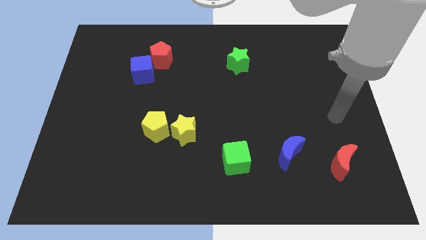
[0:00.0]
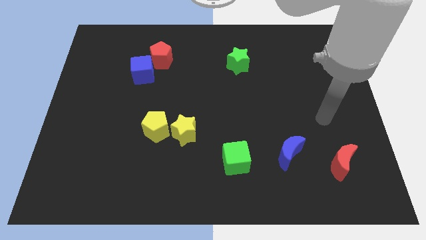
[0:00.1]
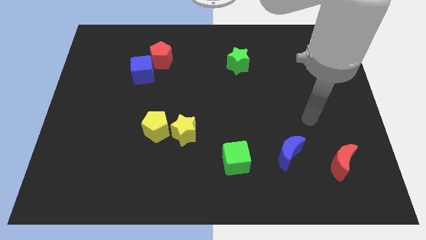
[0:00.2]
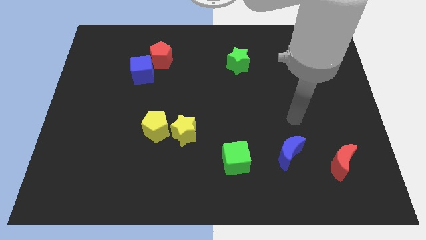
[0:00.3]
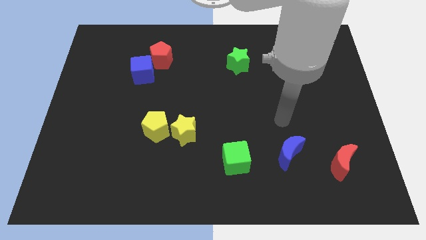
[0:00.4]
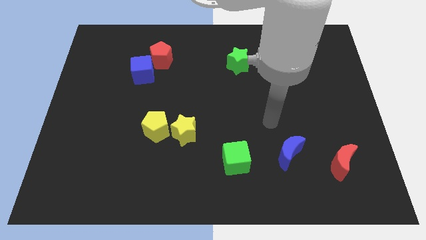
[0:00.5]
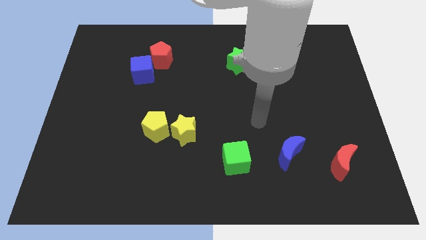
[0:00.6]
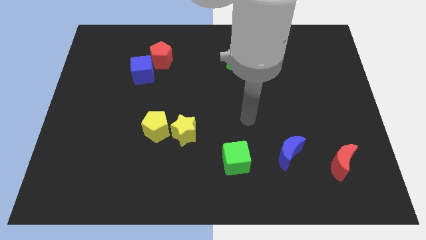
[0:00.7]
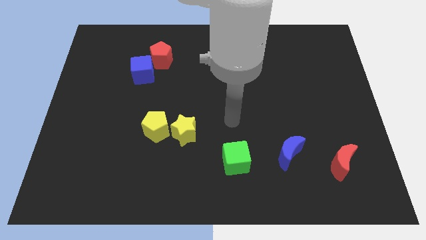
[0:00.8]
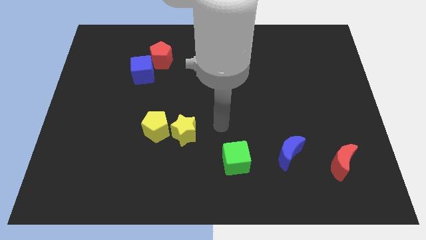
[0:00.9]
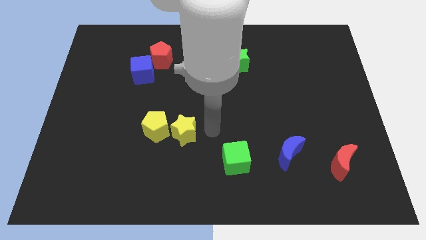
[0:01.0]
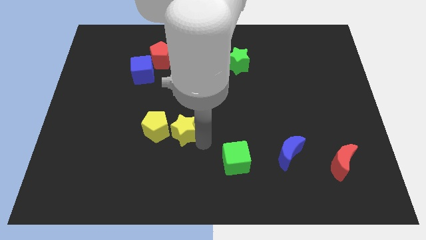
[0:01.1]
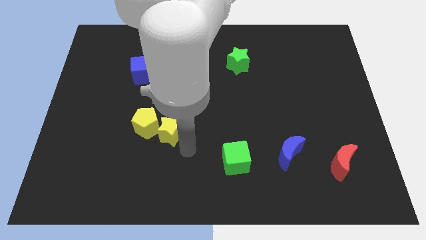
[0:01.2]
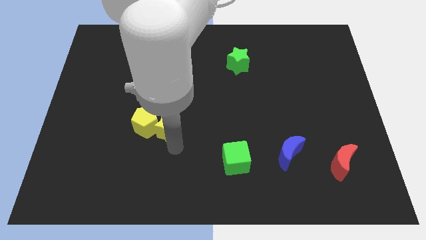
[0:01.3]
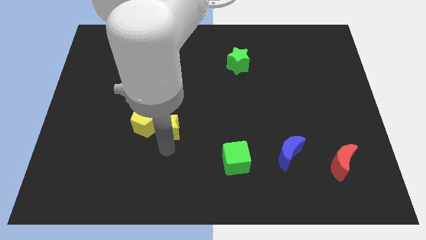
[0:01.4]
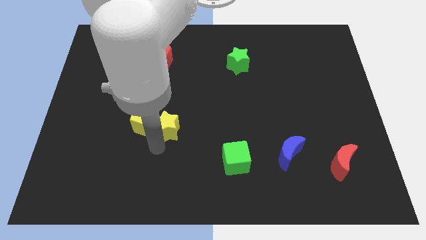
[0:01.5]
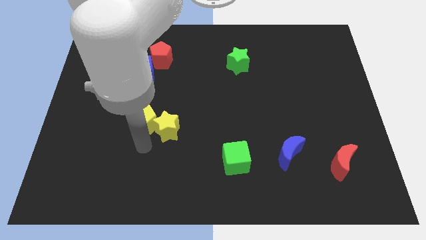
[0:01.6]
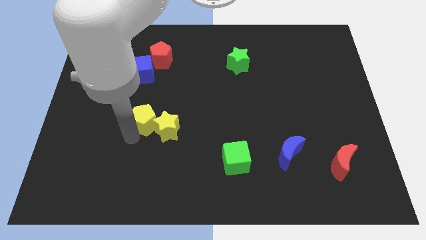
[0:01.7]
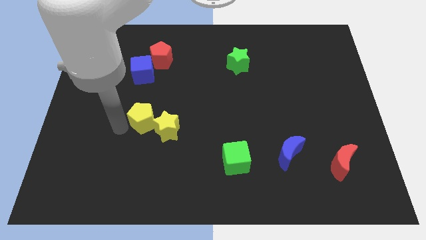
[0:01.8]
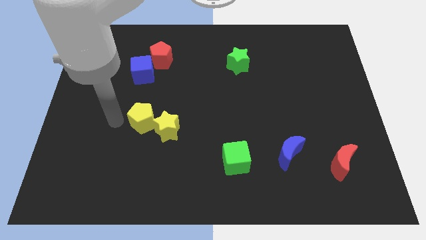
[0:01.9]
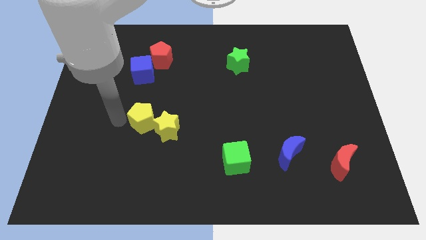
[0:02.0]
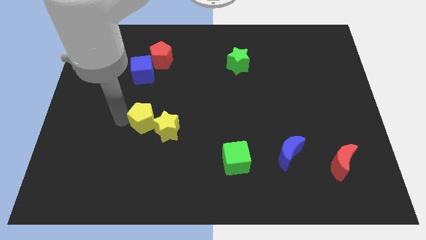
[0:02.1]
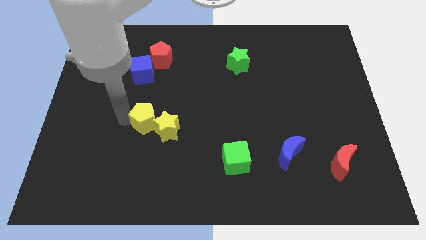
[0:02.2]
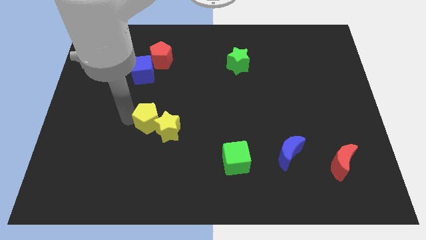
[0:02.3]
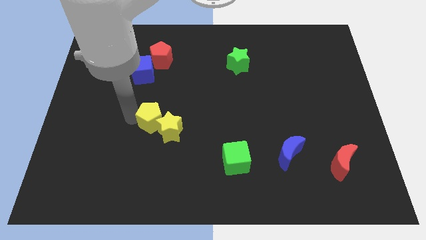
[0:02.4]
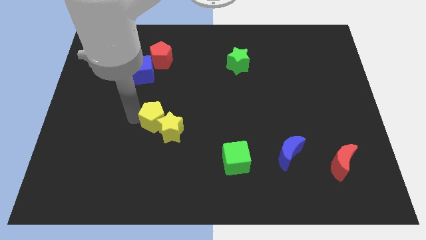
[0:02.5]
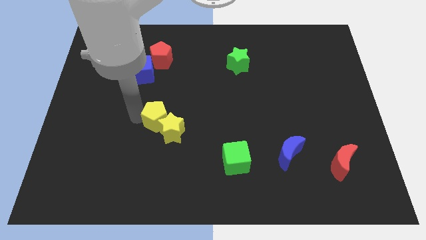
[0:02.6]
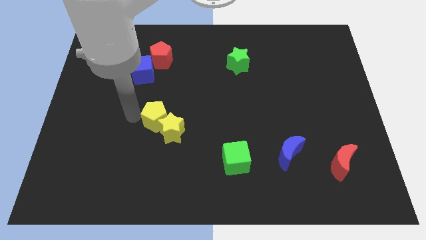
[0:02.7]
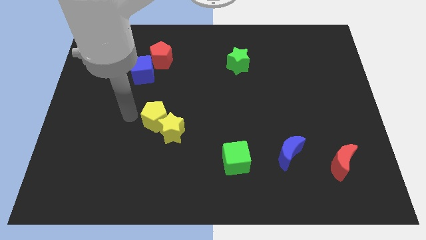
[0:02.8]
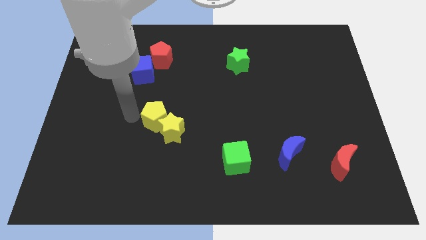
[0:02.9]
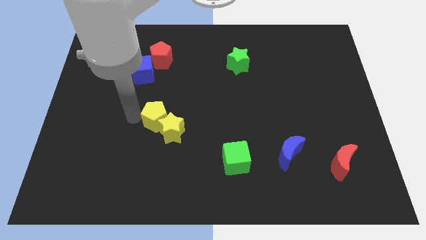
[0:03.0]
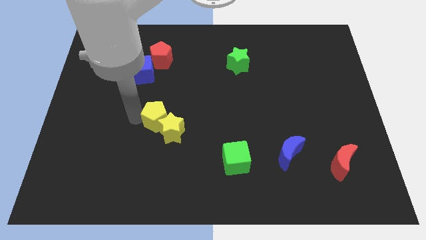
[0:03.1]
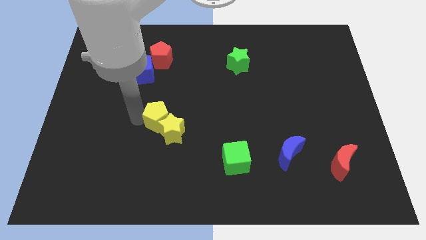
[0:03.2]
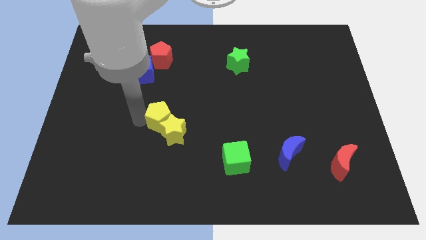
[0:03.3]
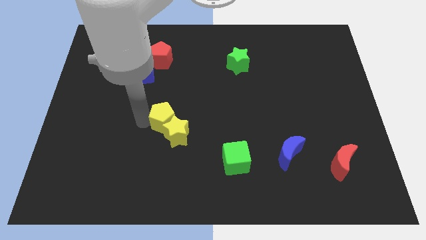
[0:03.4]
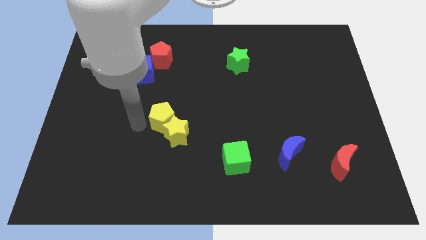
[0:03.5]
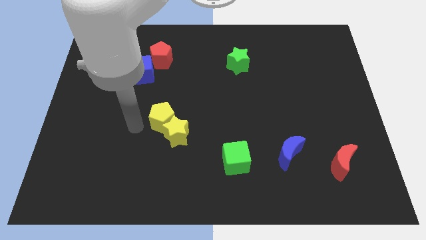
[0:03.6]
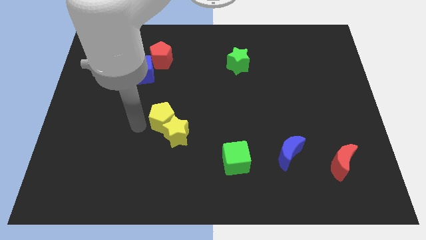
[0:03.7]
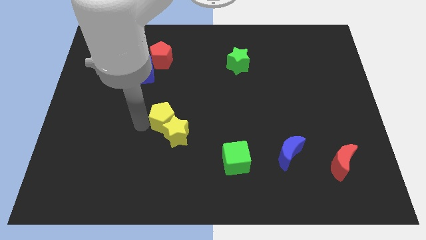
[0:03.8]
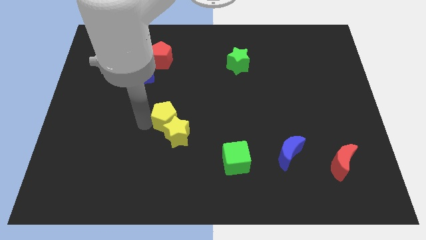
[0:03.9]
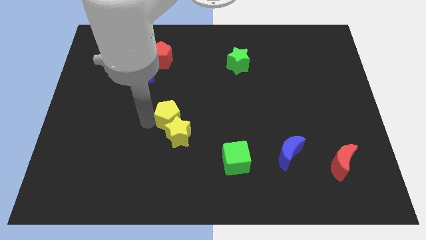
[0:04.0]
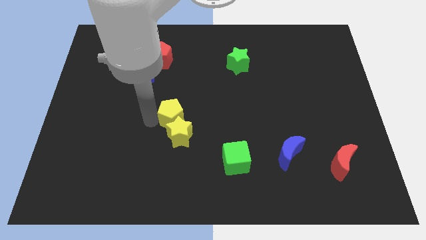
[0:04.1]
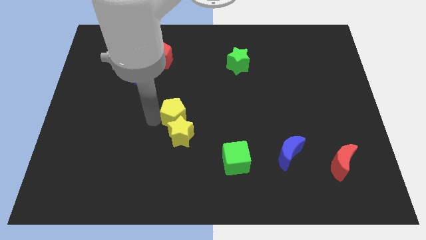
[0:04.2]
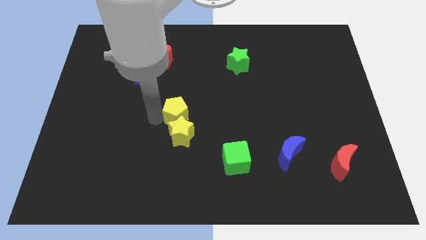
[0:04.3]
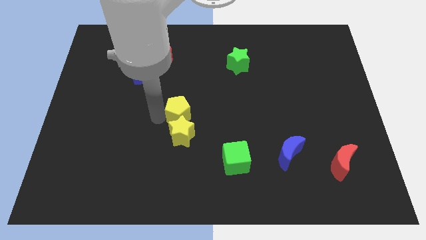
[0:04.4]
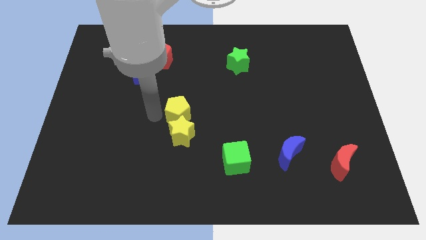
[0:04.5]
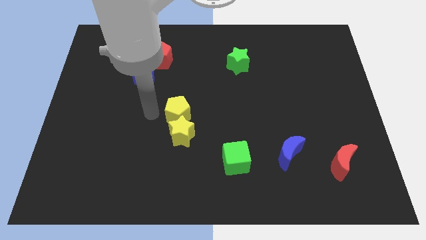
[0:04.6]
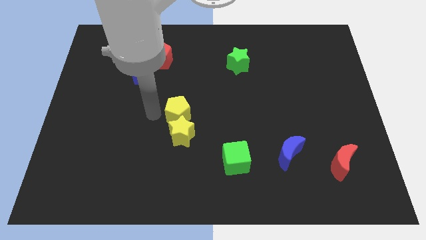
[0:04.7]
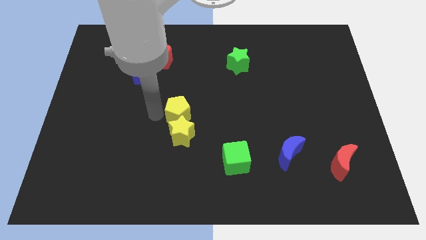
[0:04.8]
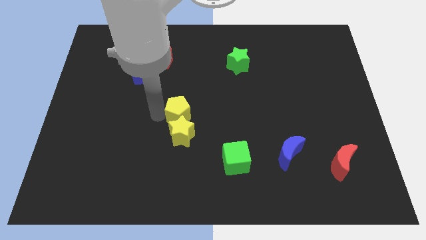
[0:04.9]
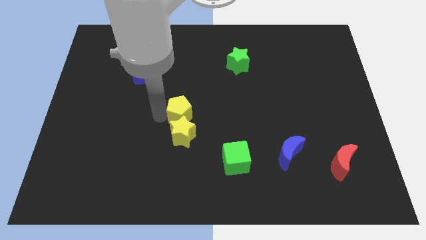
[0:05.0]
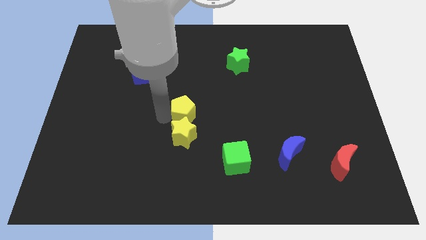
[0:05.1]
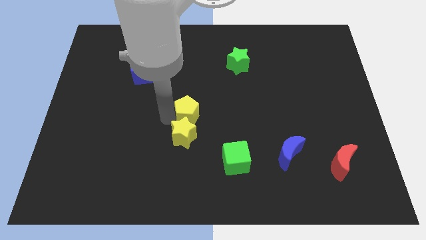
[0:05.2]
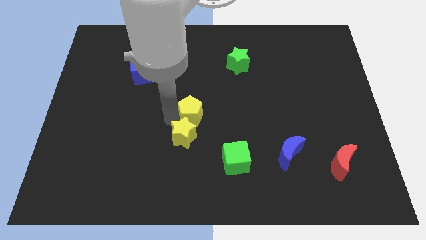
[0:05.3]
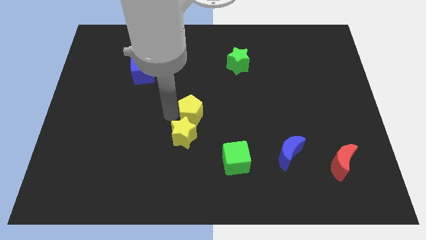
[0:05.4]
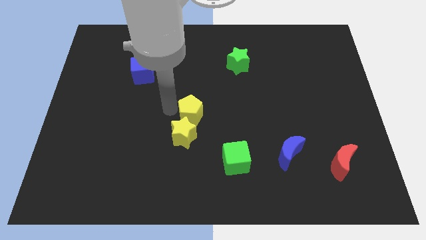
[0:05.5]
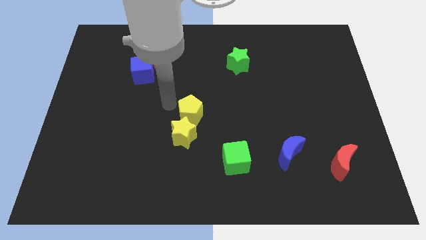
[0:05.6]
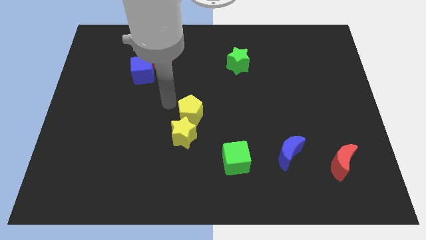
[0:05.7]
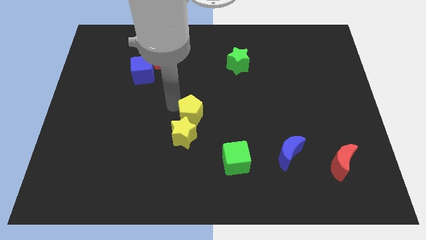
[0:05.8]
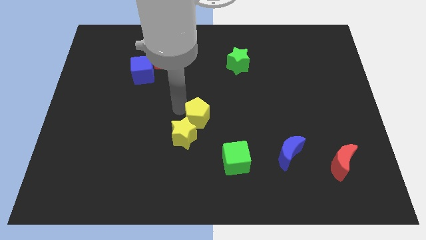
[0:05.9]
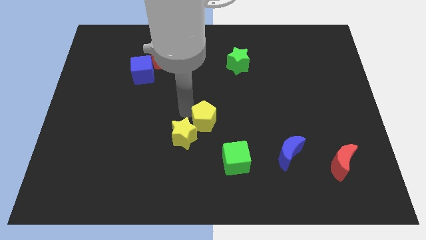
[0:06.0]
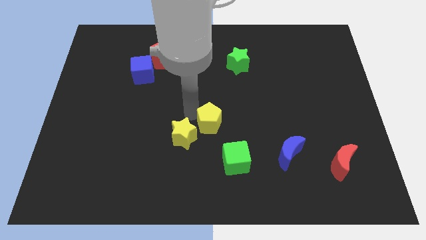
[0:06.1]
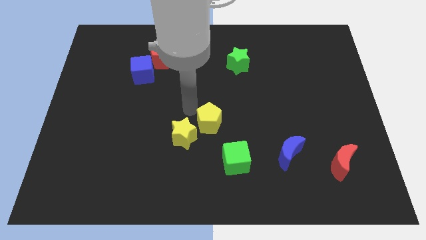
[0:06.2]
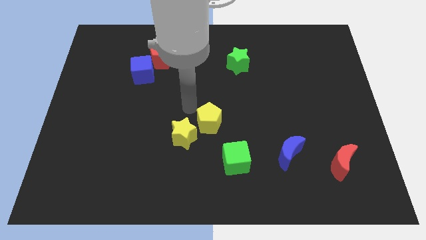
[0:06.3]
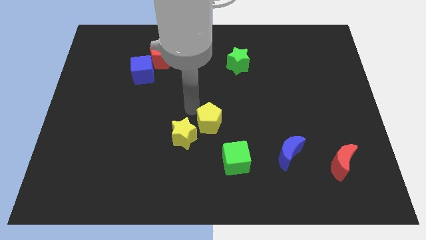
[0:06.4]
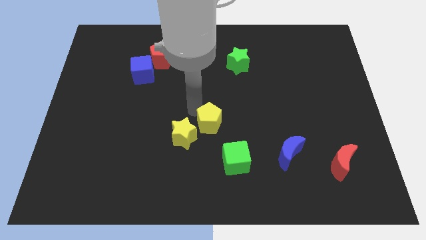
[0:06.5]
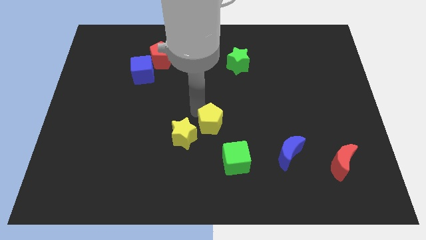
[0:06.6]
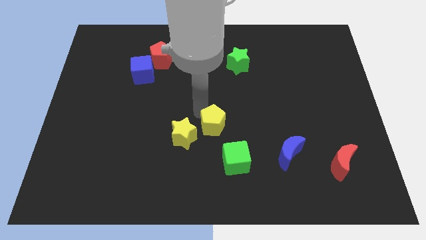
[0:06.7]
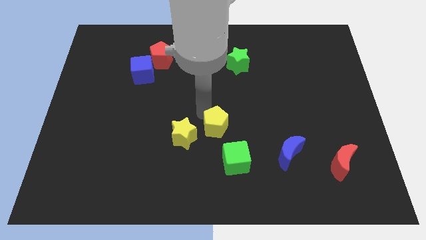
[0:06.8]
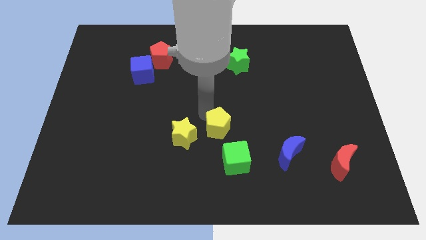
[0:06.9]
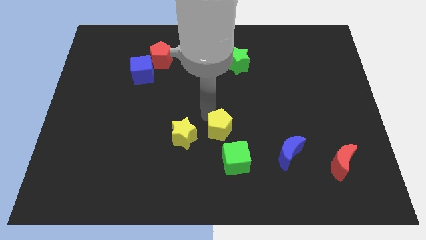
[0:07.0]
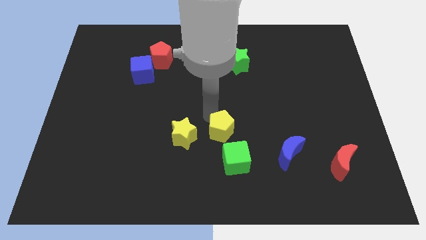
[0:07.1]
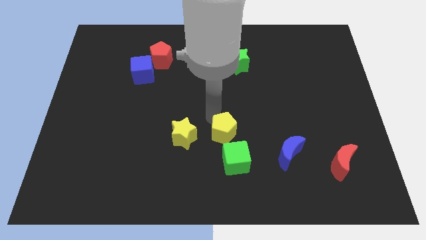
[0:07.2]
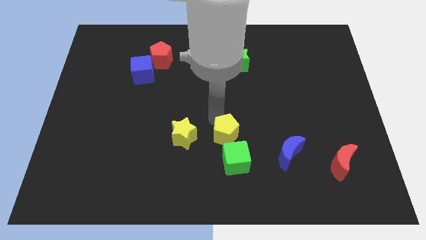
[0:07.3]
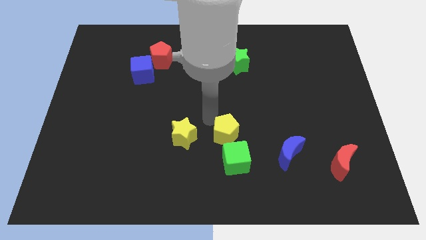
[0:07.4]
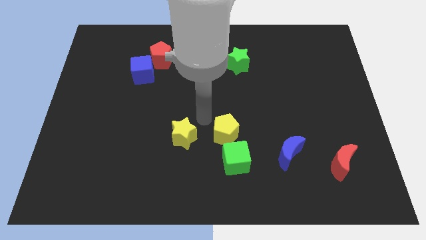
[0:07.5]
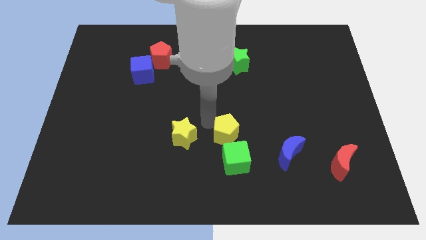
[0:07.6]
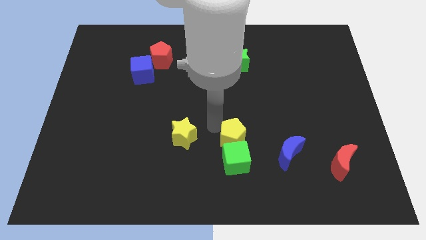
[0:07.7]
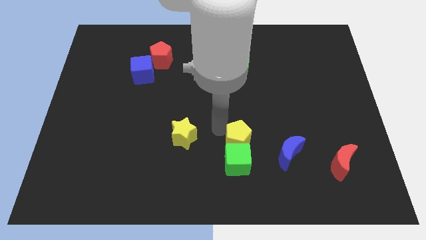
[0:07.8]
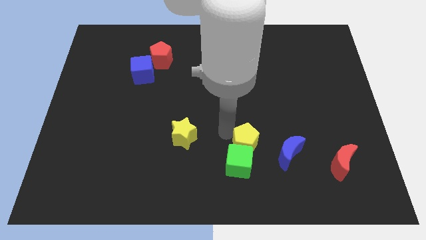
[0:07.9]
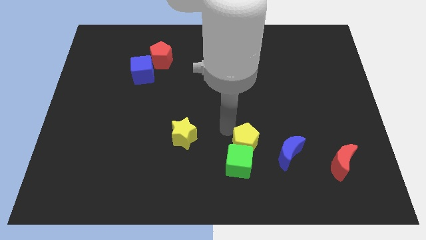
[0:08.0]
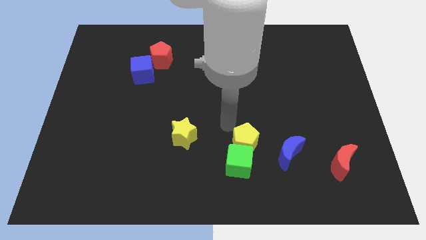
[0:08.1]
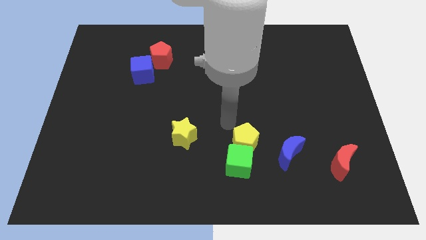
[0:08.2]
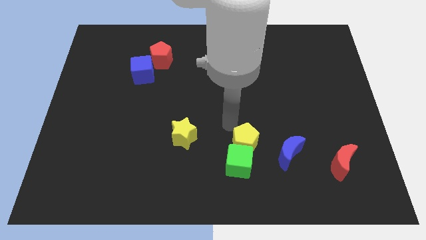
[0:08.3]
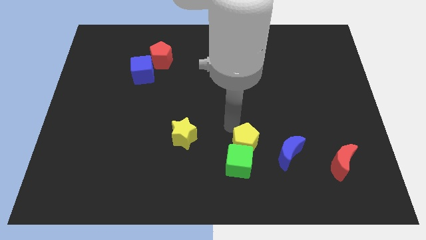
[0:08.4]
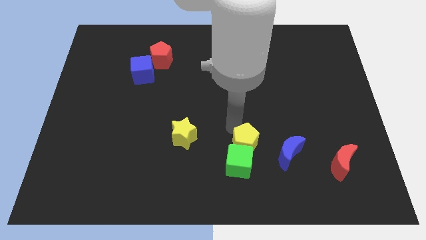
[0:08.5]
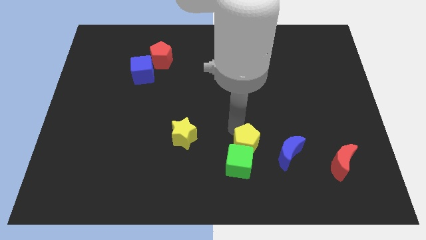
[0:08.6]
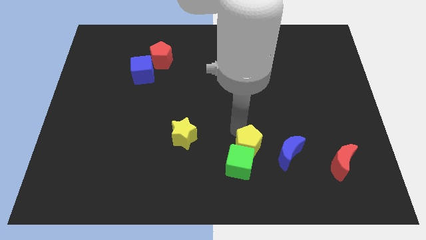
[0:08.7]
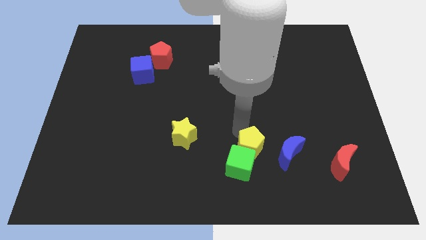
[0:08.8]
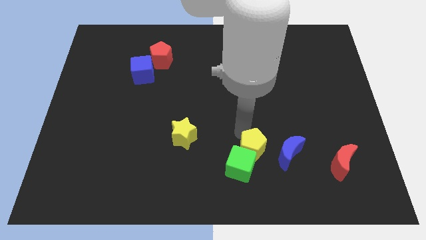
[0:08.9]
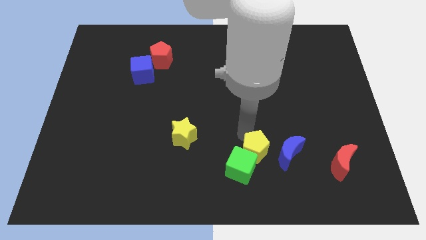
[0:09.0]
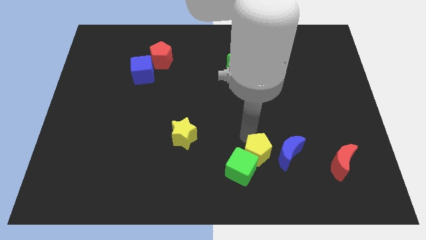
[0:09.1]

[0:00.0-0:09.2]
move the yellow pentagon diagonally down and to the left of the blue moon
